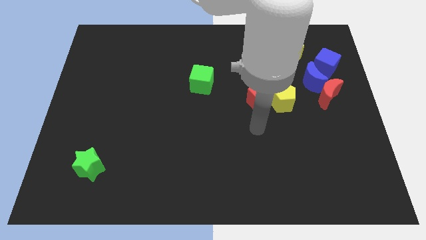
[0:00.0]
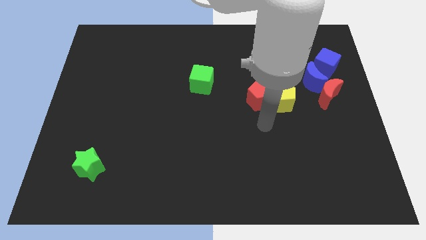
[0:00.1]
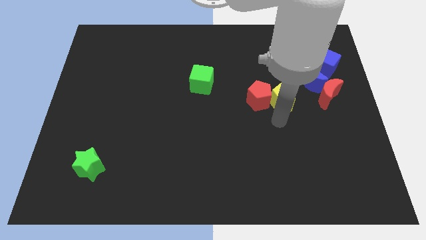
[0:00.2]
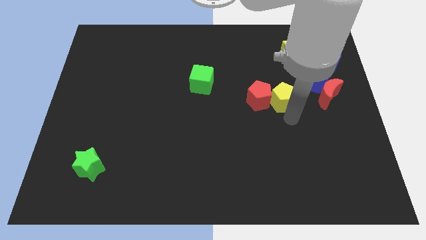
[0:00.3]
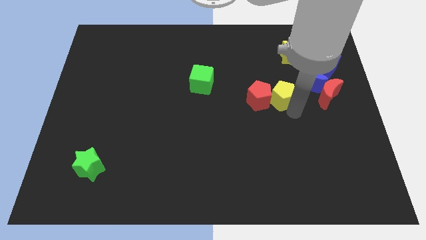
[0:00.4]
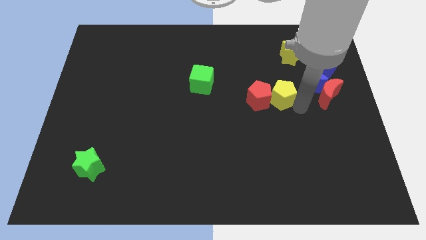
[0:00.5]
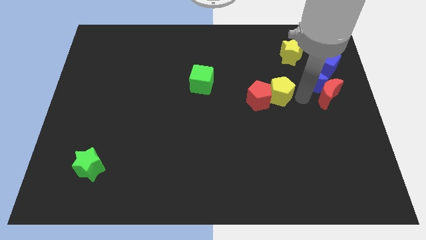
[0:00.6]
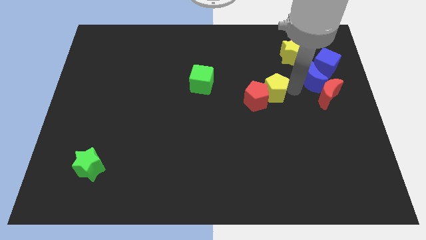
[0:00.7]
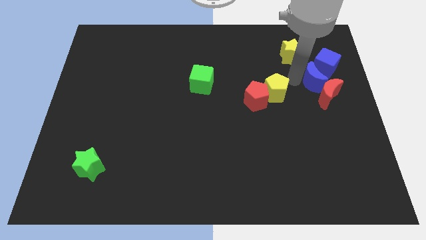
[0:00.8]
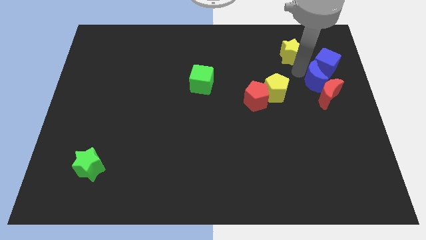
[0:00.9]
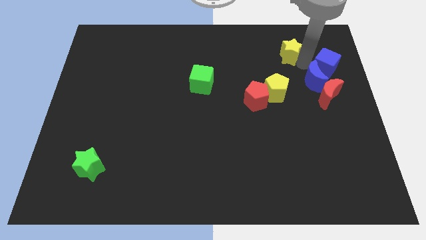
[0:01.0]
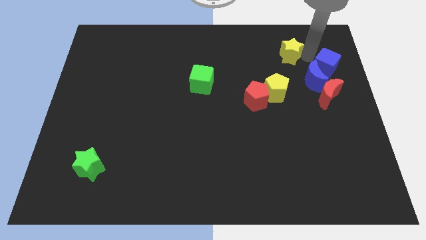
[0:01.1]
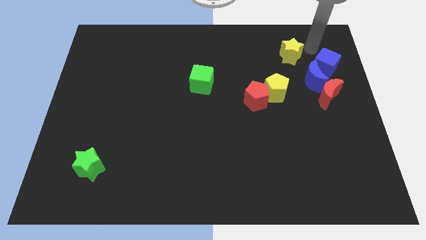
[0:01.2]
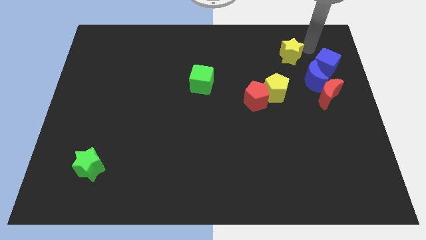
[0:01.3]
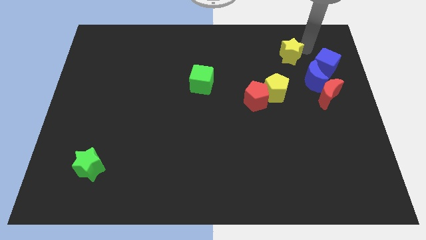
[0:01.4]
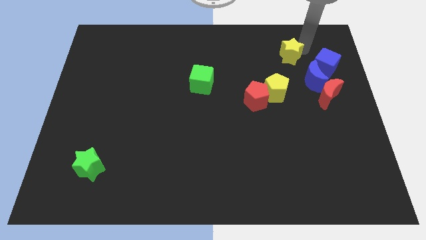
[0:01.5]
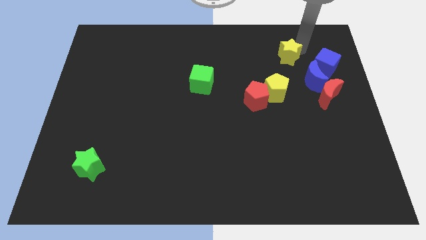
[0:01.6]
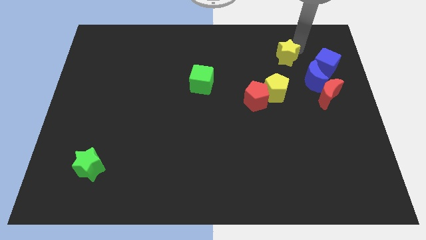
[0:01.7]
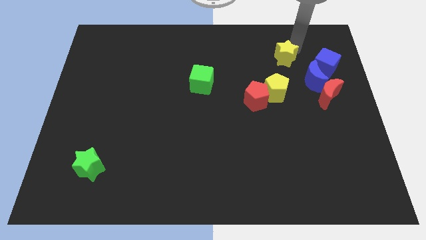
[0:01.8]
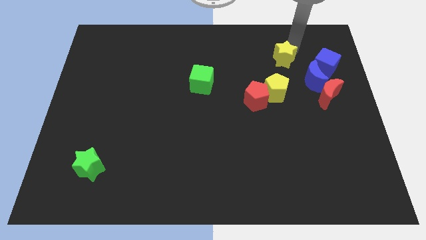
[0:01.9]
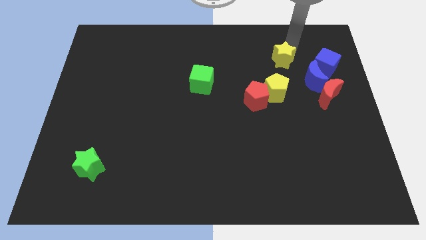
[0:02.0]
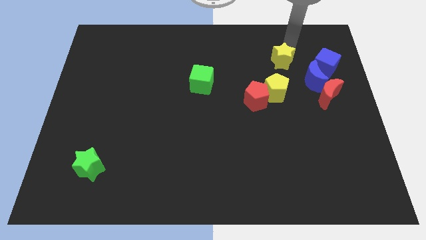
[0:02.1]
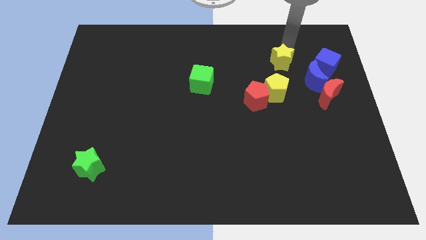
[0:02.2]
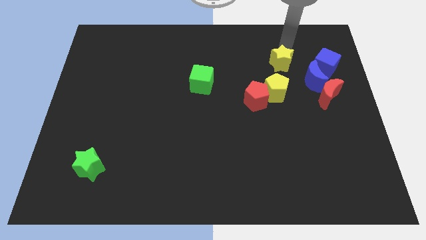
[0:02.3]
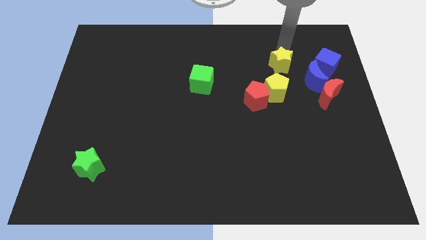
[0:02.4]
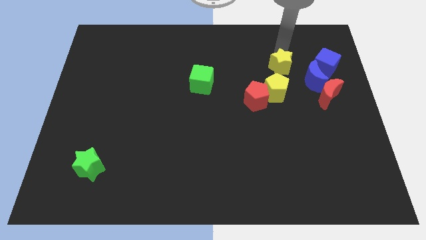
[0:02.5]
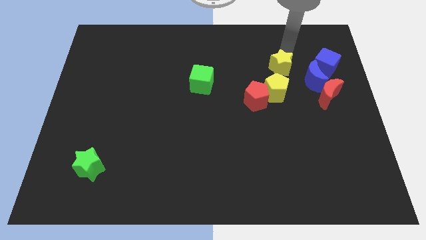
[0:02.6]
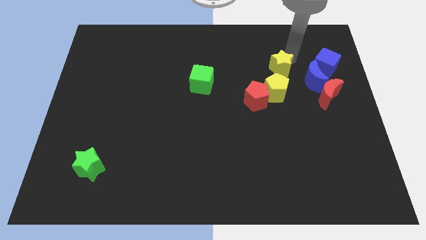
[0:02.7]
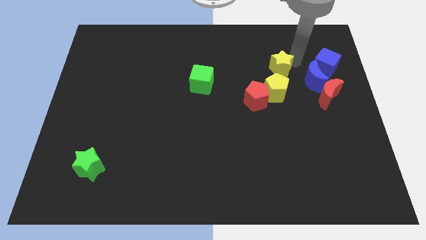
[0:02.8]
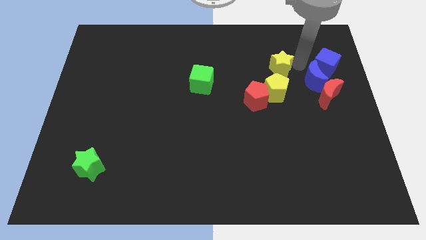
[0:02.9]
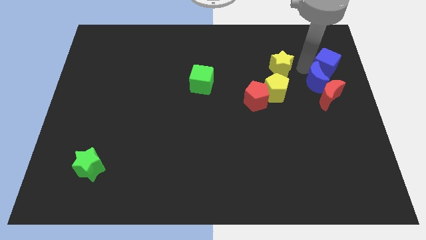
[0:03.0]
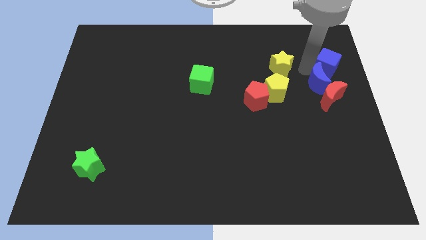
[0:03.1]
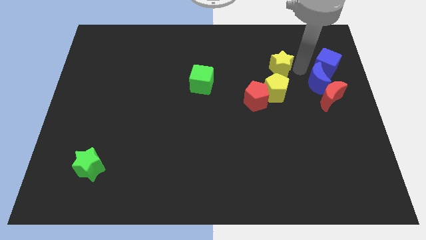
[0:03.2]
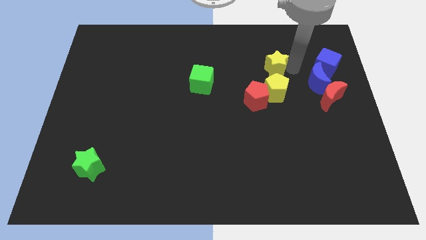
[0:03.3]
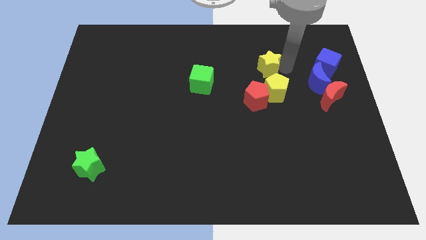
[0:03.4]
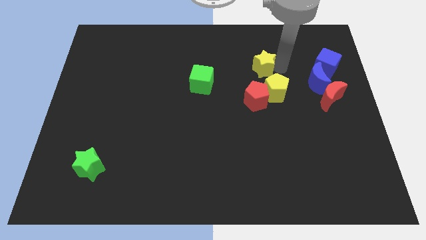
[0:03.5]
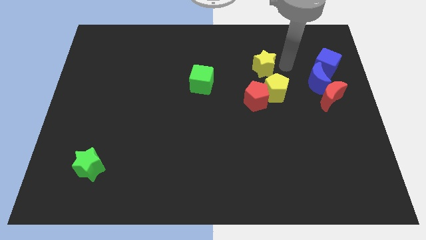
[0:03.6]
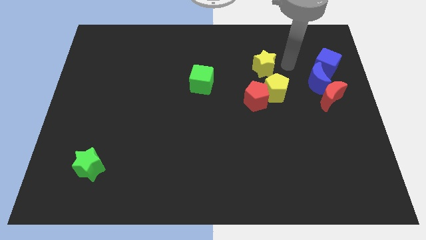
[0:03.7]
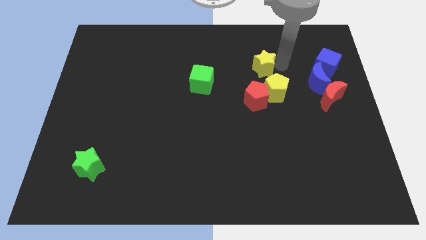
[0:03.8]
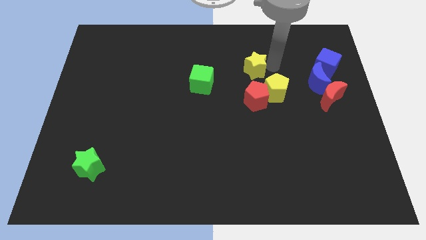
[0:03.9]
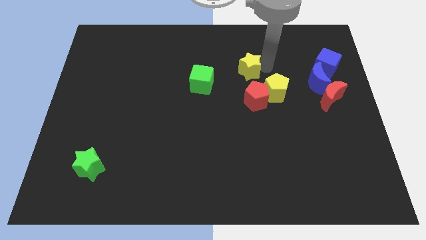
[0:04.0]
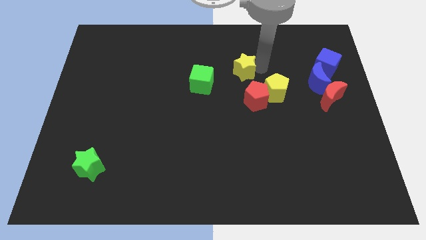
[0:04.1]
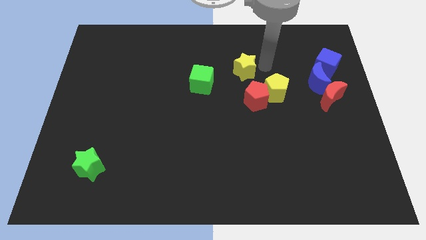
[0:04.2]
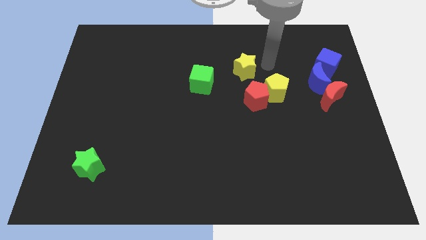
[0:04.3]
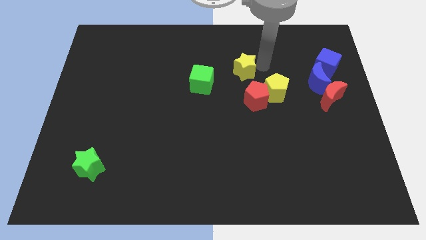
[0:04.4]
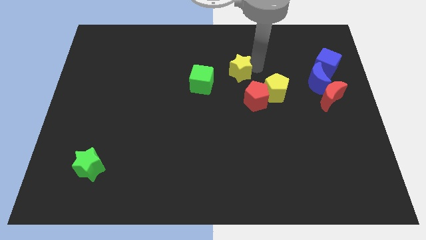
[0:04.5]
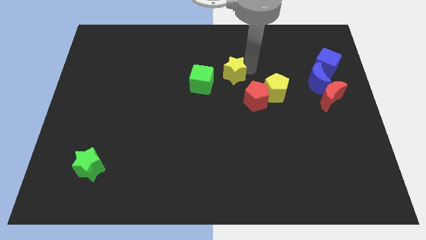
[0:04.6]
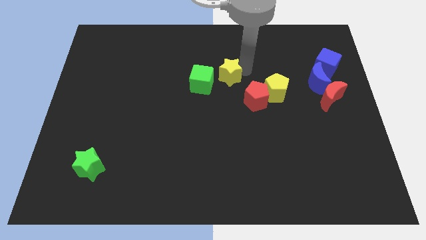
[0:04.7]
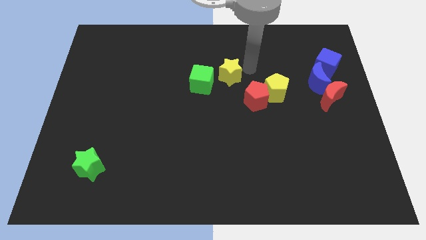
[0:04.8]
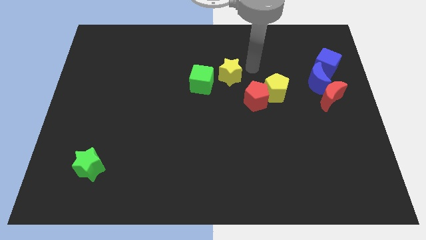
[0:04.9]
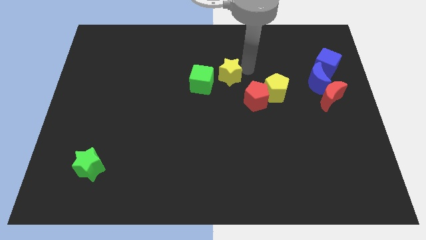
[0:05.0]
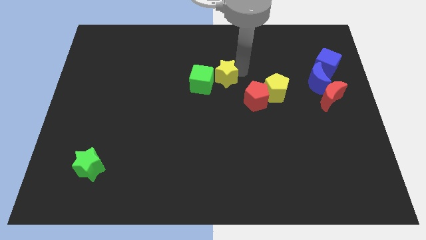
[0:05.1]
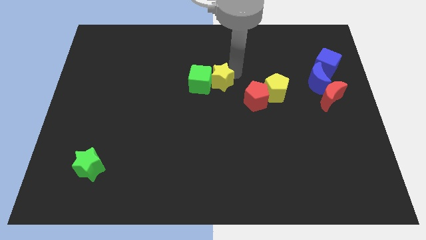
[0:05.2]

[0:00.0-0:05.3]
move the yellow star next to the green cube

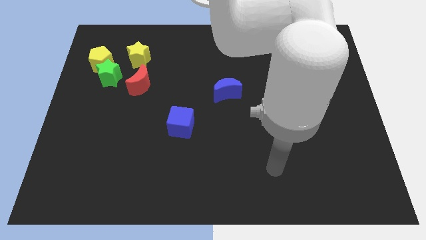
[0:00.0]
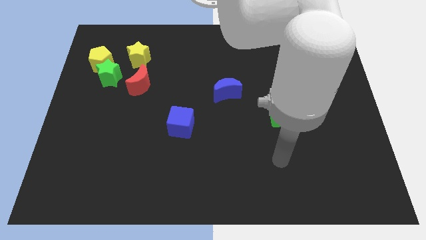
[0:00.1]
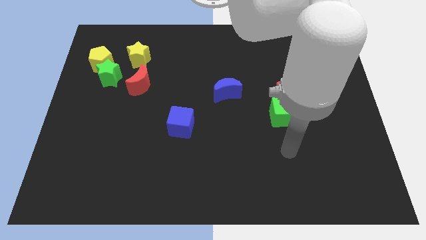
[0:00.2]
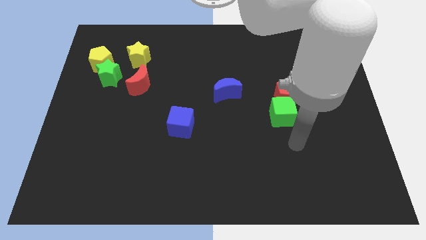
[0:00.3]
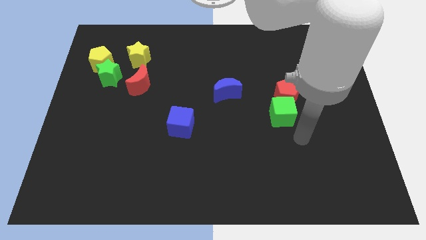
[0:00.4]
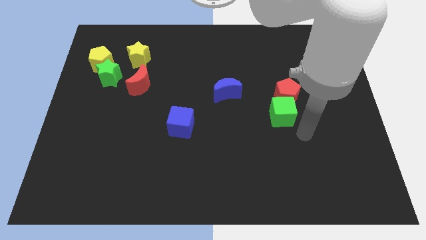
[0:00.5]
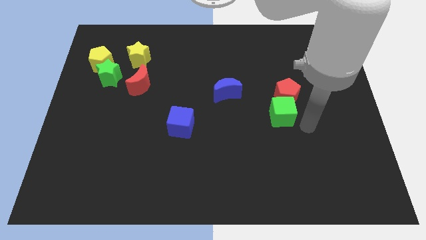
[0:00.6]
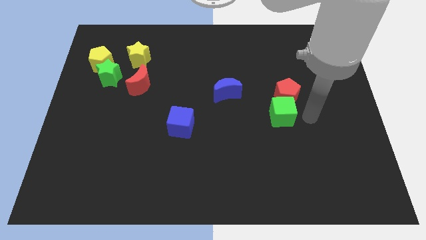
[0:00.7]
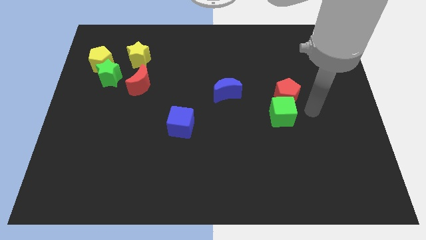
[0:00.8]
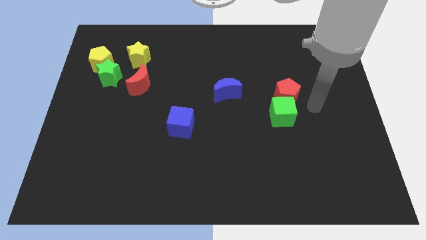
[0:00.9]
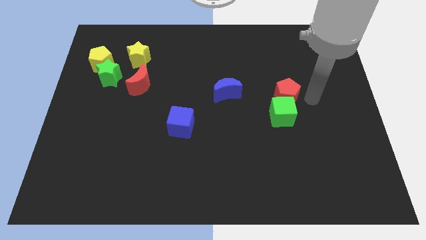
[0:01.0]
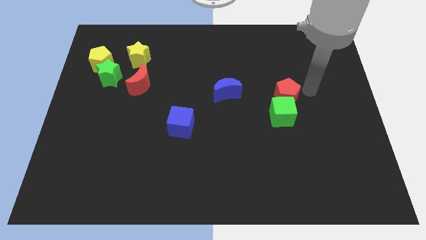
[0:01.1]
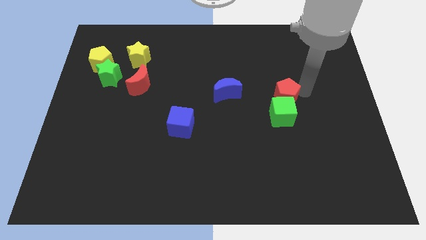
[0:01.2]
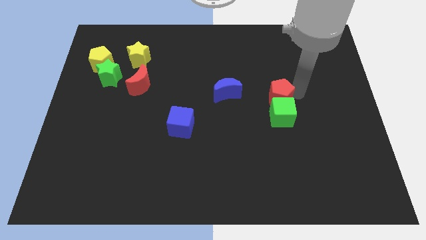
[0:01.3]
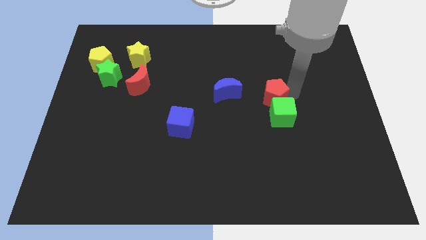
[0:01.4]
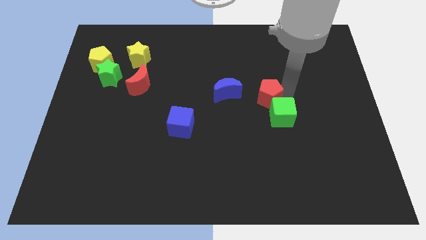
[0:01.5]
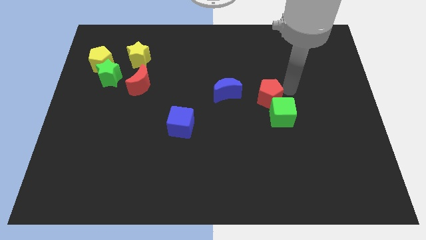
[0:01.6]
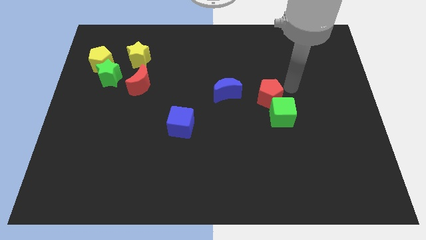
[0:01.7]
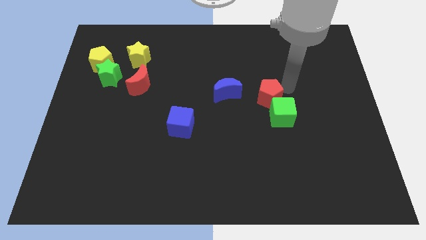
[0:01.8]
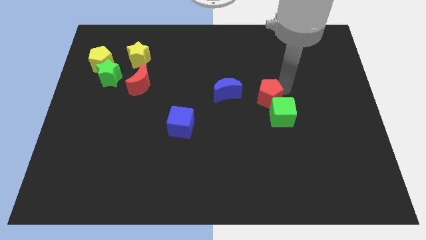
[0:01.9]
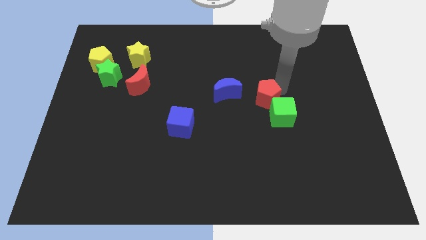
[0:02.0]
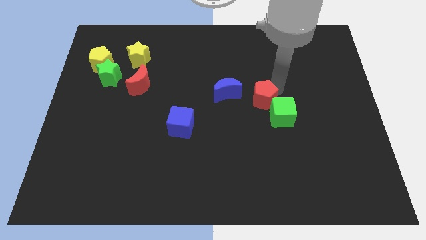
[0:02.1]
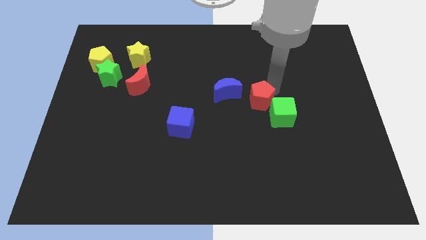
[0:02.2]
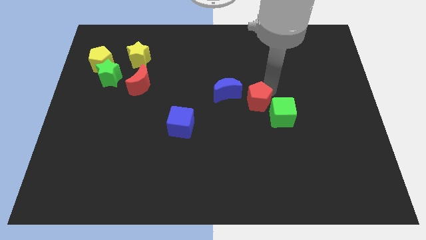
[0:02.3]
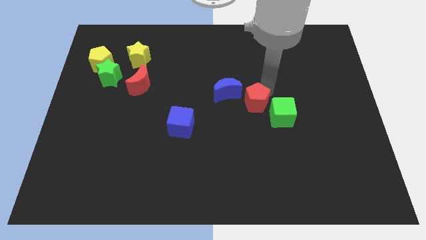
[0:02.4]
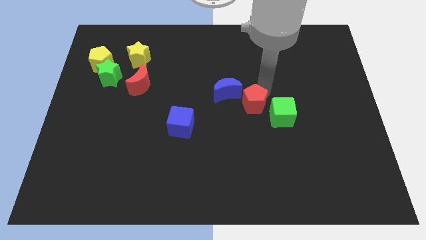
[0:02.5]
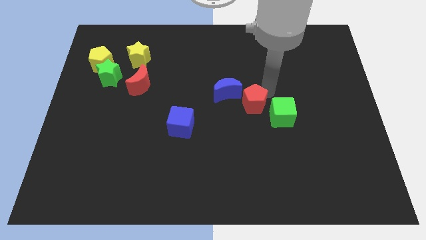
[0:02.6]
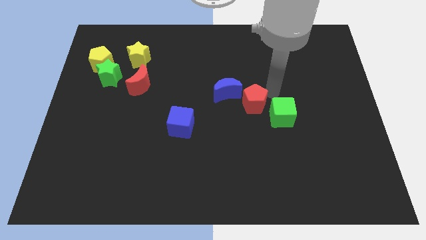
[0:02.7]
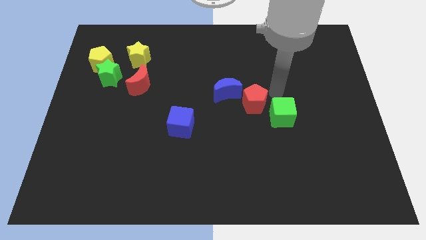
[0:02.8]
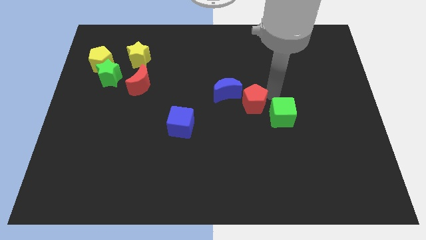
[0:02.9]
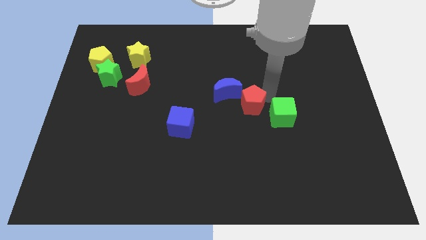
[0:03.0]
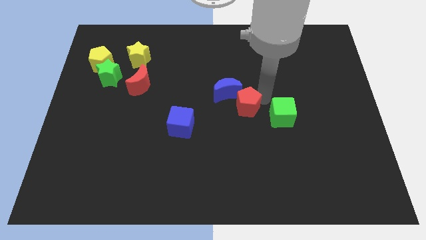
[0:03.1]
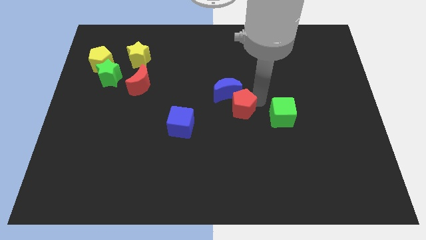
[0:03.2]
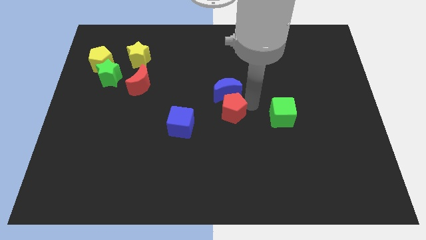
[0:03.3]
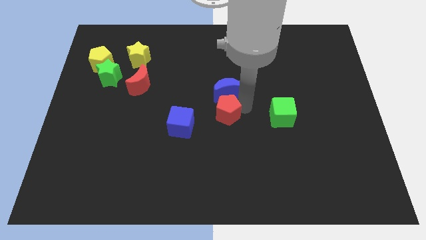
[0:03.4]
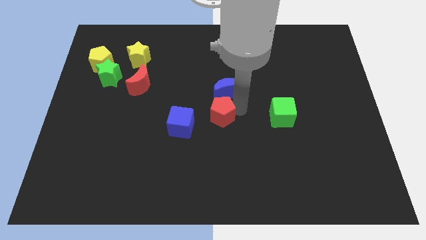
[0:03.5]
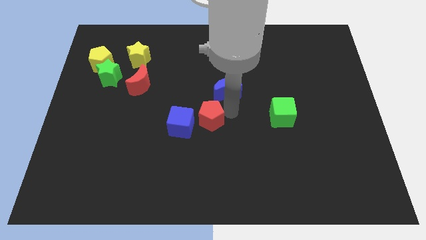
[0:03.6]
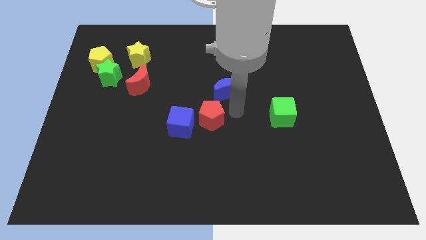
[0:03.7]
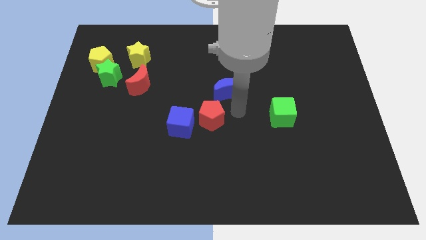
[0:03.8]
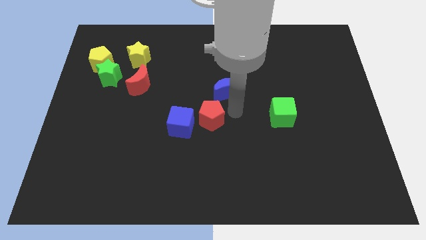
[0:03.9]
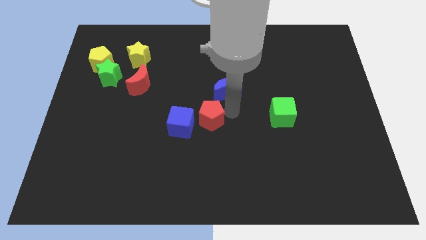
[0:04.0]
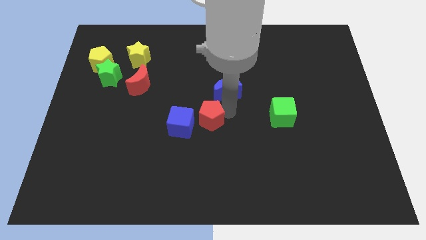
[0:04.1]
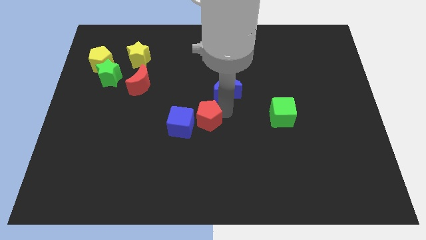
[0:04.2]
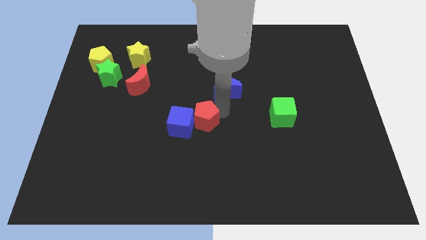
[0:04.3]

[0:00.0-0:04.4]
move the red pentagon next to the blue cube
